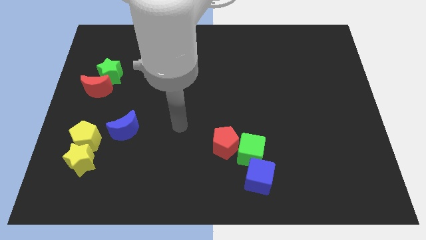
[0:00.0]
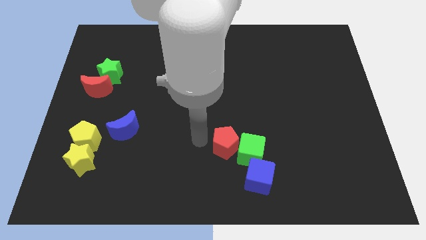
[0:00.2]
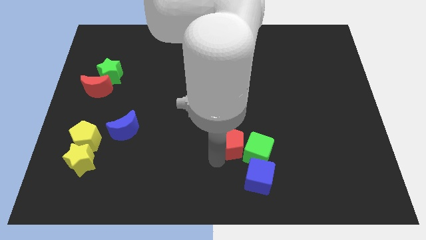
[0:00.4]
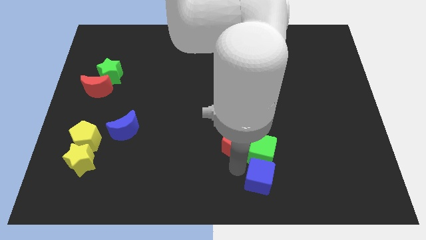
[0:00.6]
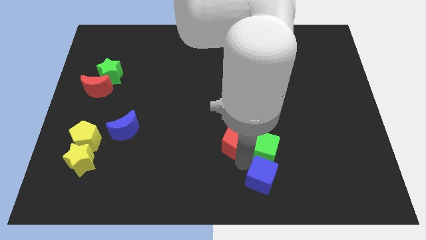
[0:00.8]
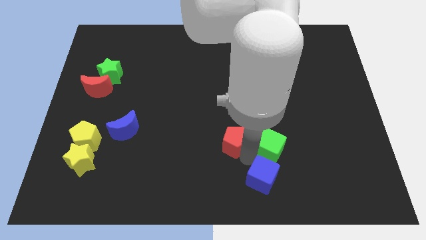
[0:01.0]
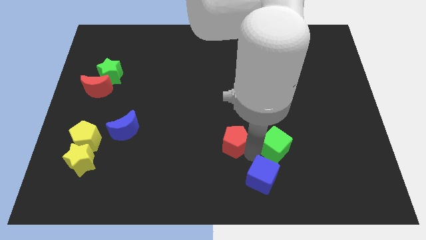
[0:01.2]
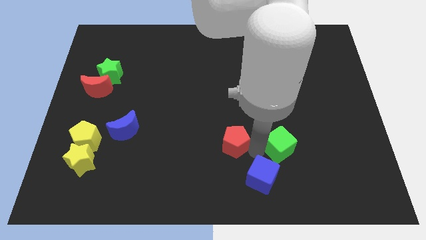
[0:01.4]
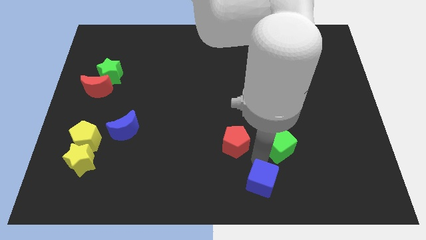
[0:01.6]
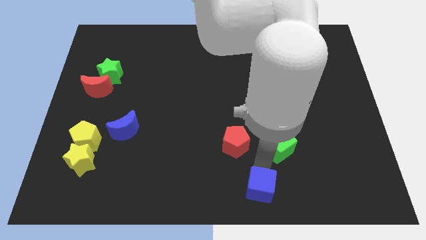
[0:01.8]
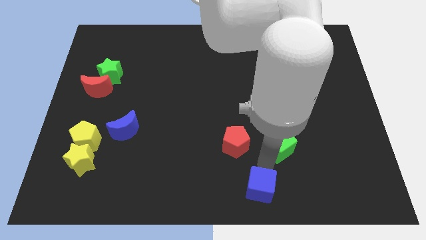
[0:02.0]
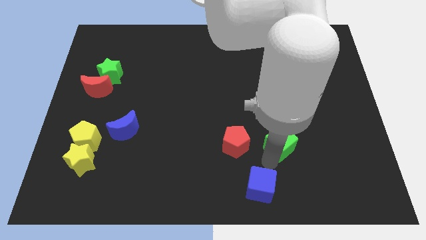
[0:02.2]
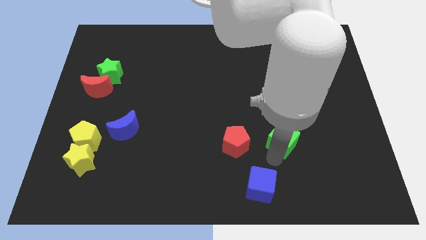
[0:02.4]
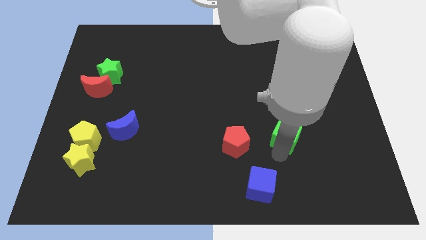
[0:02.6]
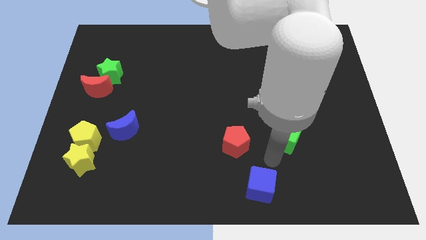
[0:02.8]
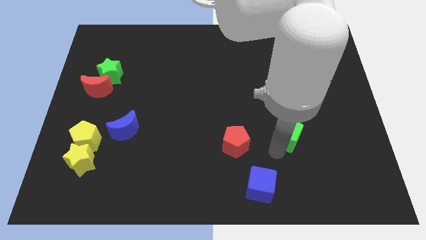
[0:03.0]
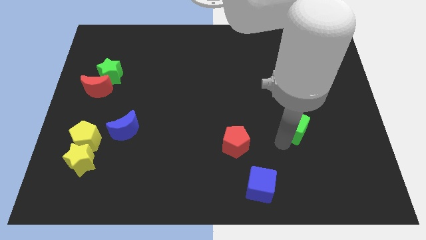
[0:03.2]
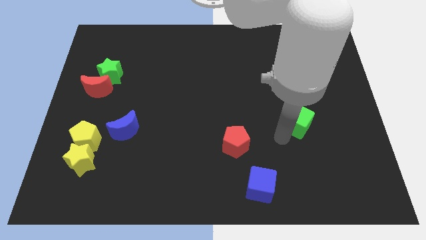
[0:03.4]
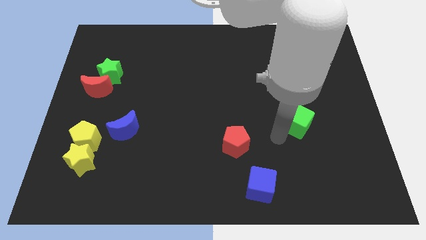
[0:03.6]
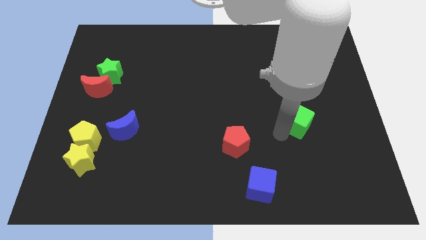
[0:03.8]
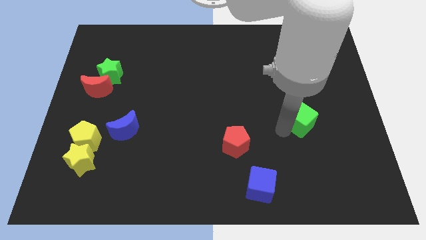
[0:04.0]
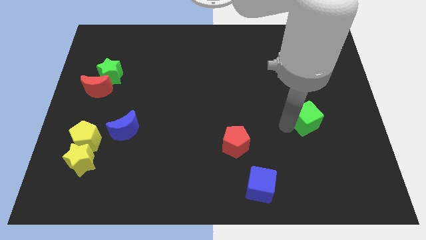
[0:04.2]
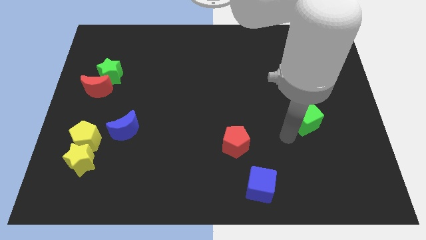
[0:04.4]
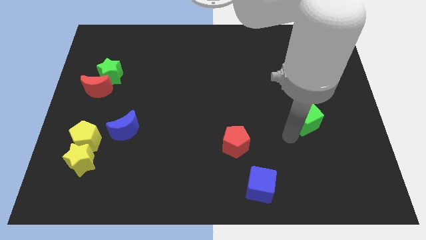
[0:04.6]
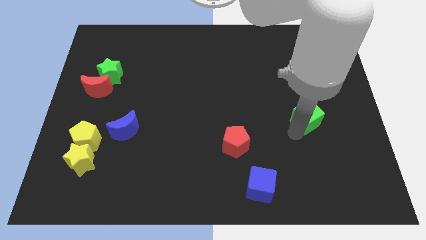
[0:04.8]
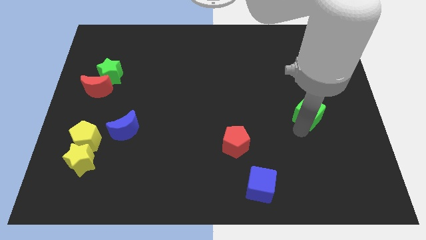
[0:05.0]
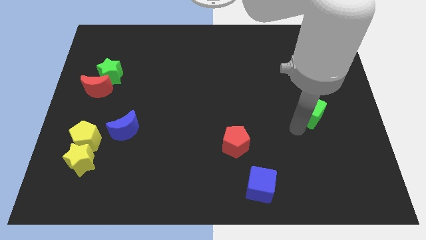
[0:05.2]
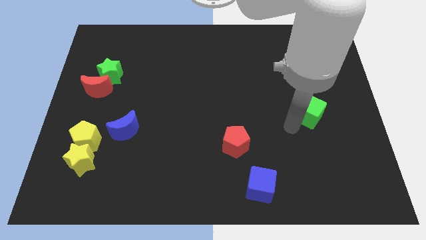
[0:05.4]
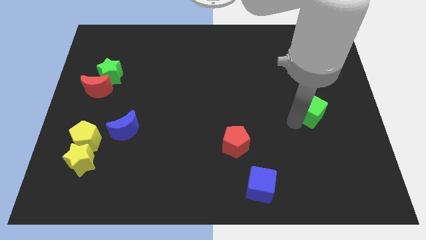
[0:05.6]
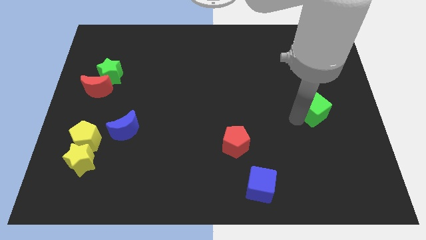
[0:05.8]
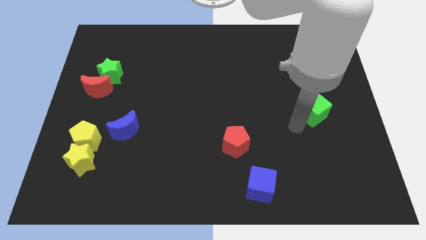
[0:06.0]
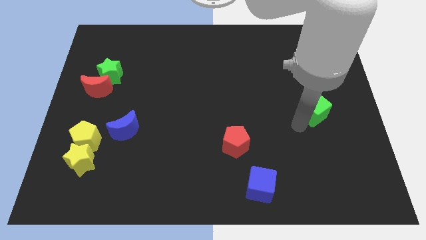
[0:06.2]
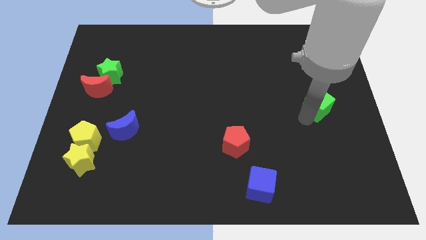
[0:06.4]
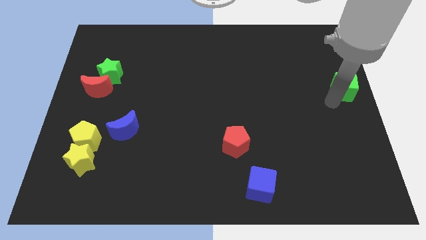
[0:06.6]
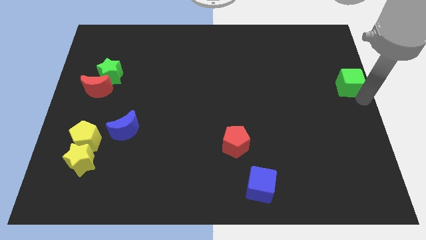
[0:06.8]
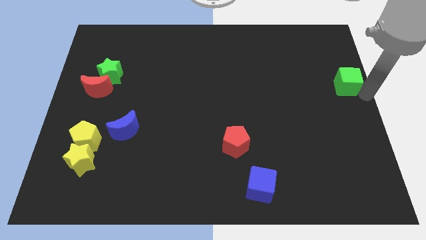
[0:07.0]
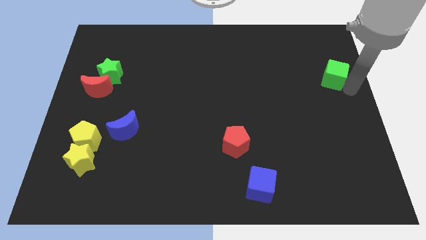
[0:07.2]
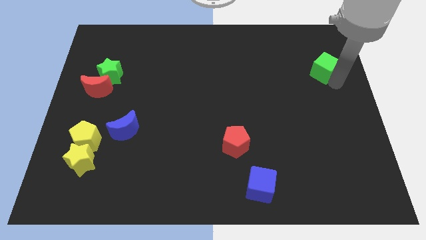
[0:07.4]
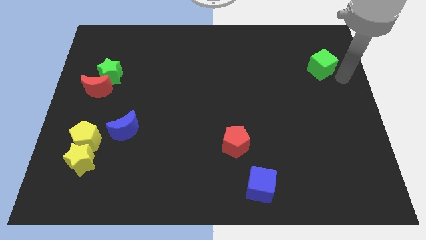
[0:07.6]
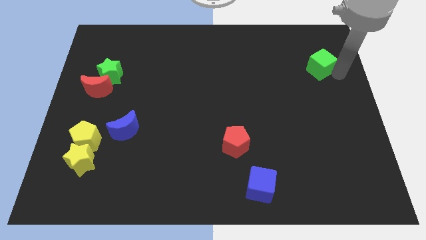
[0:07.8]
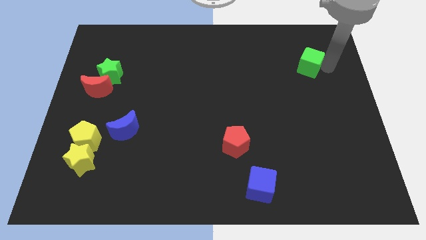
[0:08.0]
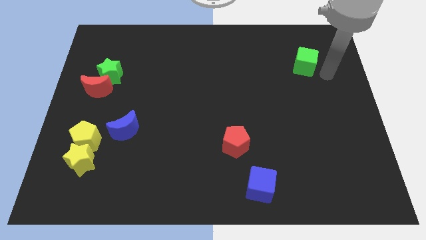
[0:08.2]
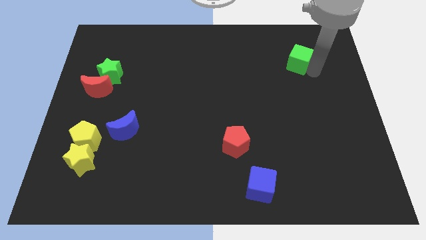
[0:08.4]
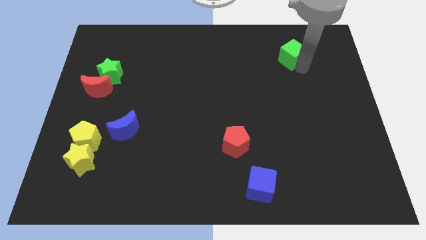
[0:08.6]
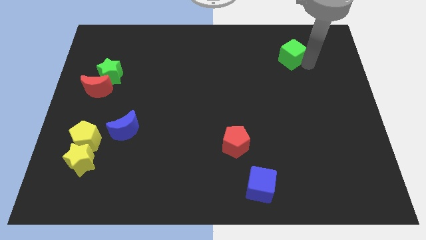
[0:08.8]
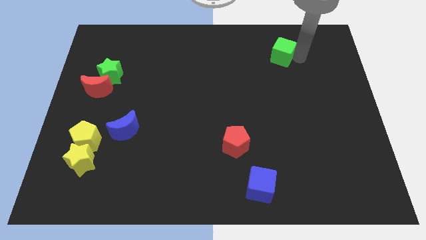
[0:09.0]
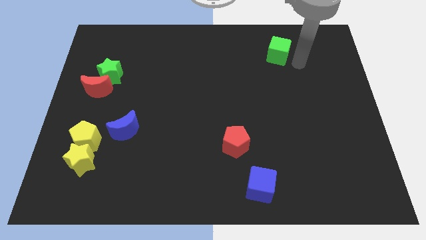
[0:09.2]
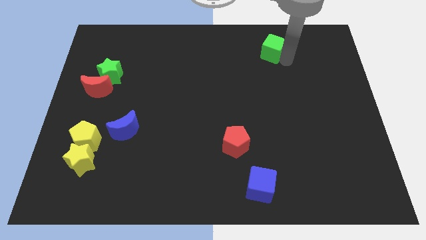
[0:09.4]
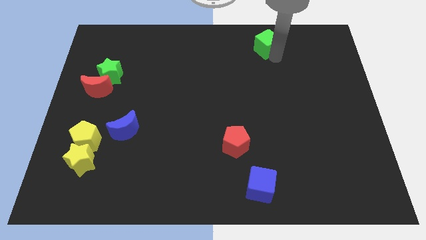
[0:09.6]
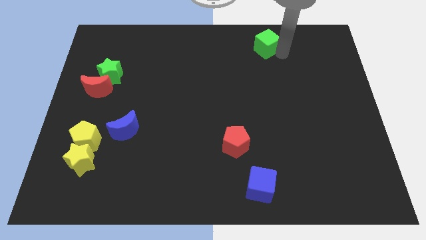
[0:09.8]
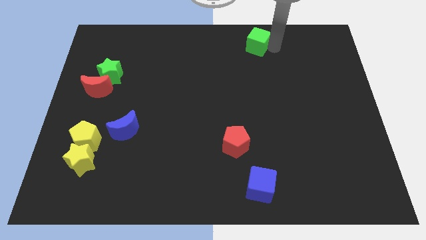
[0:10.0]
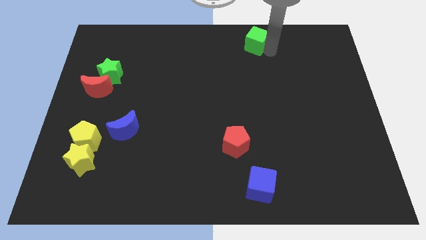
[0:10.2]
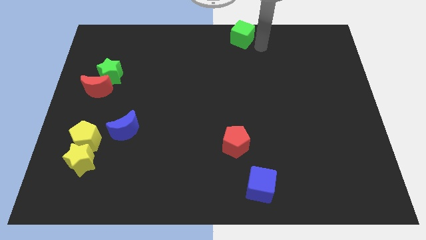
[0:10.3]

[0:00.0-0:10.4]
slide the green cube to the towards your base

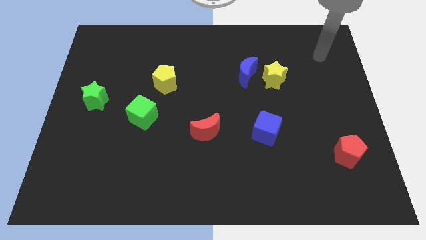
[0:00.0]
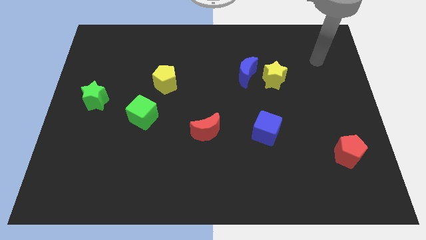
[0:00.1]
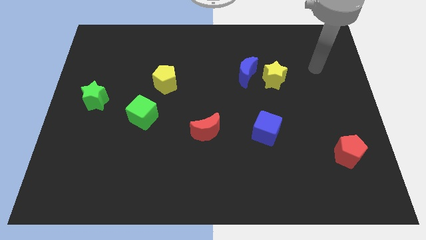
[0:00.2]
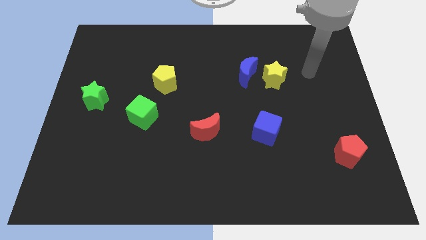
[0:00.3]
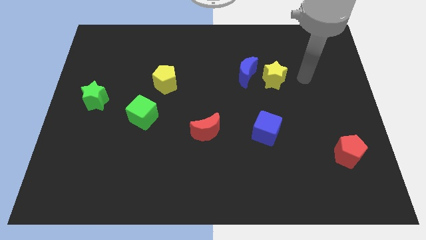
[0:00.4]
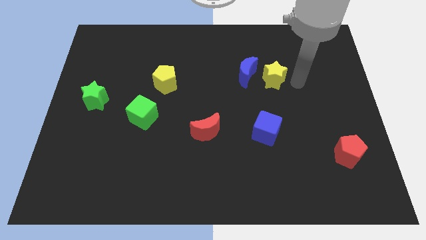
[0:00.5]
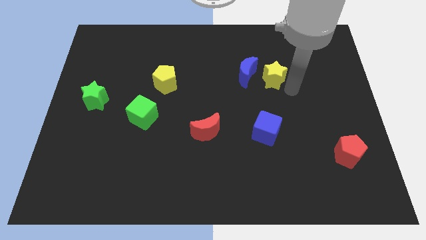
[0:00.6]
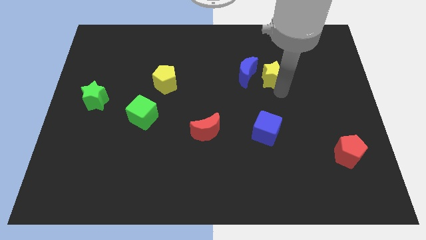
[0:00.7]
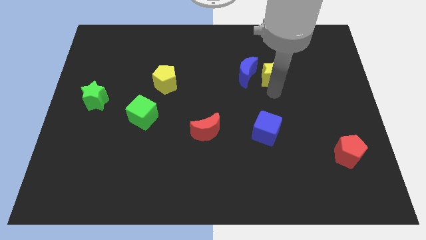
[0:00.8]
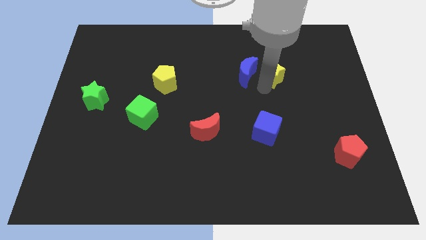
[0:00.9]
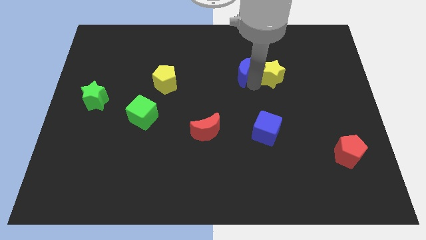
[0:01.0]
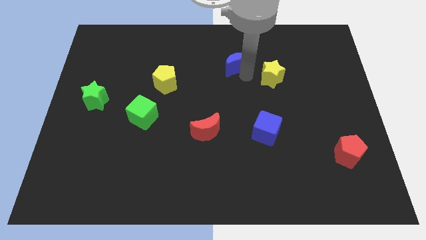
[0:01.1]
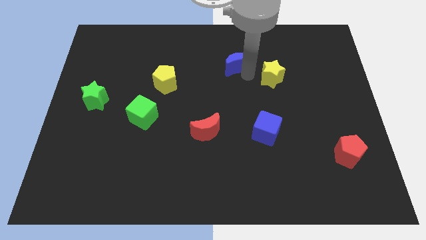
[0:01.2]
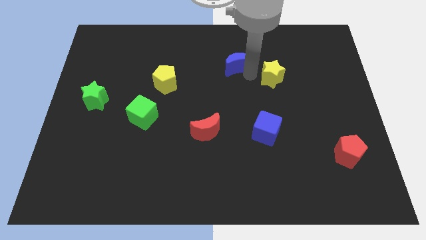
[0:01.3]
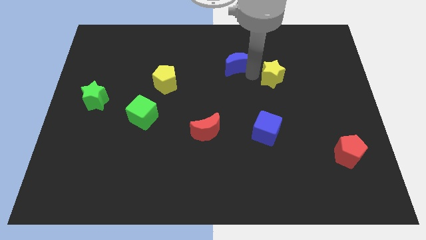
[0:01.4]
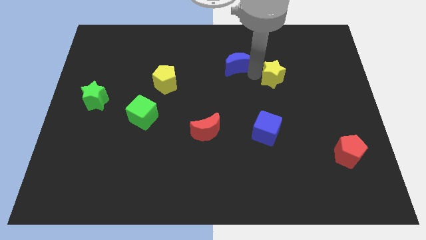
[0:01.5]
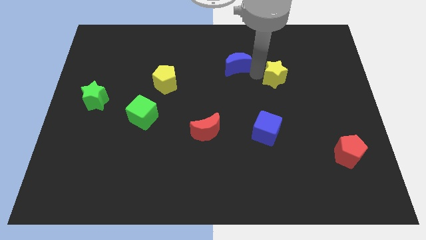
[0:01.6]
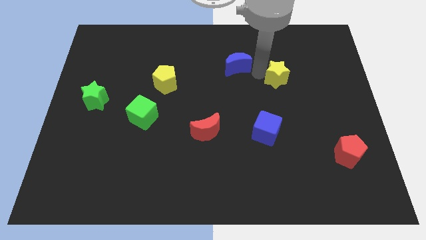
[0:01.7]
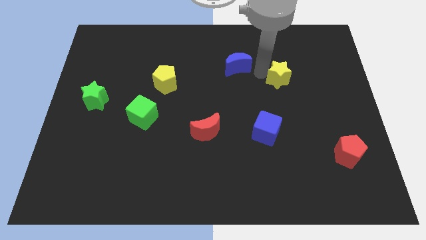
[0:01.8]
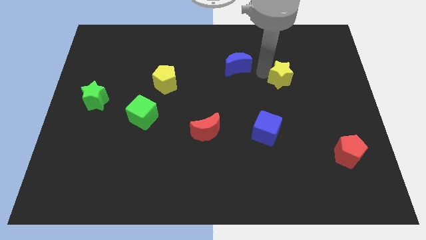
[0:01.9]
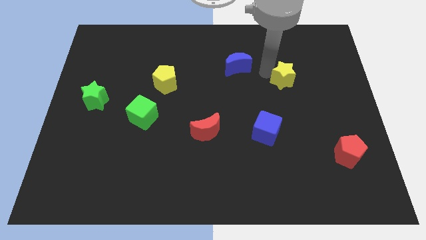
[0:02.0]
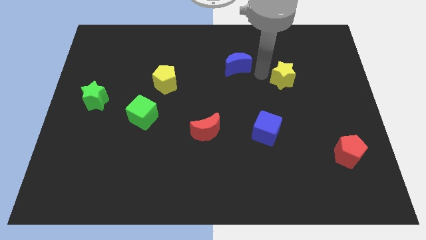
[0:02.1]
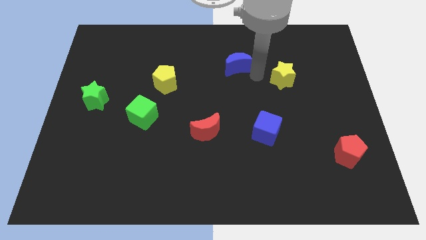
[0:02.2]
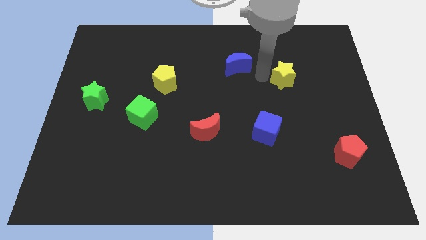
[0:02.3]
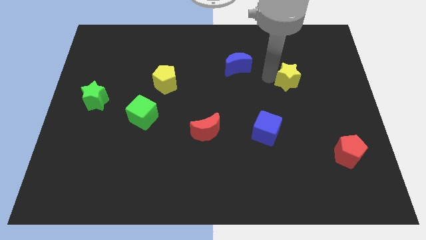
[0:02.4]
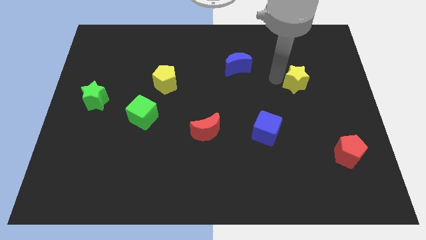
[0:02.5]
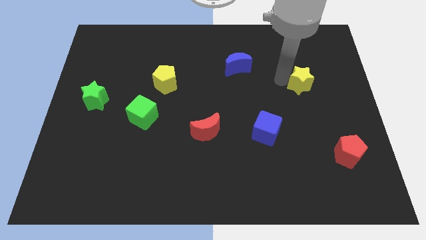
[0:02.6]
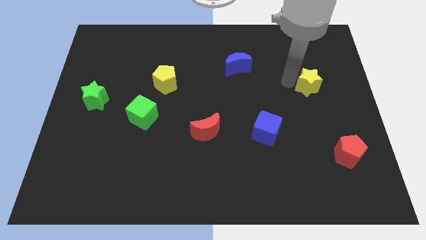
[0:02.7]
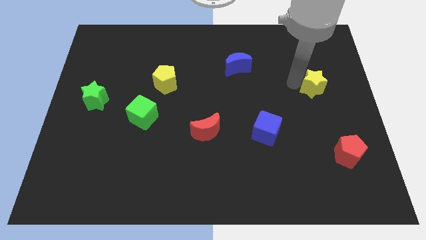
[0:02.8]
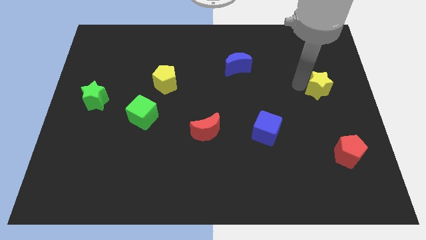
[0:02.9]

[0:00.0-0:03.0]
move the yellow star to the center right
